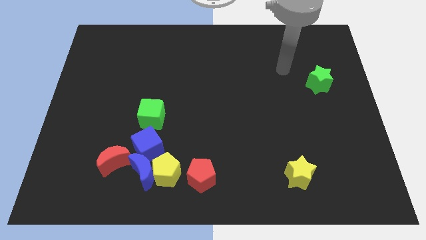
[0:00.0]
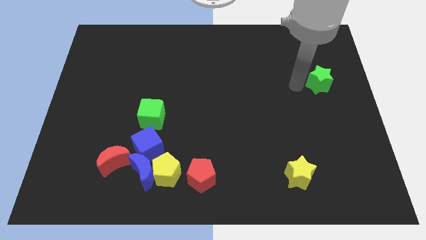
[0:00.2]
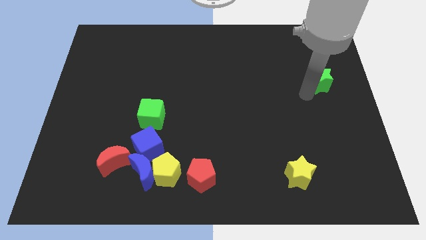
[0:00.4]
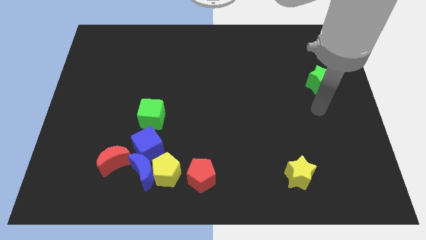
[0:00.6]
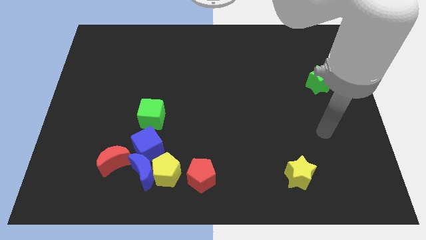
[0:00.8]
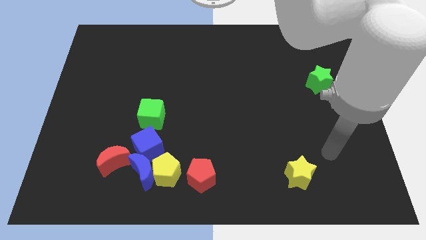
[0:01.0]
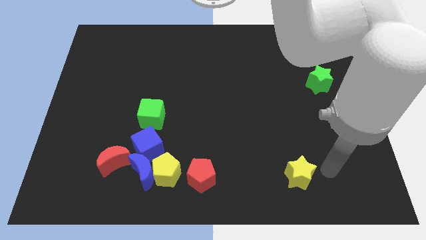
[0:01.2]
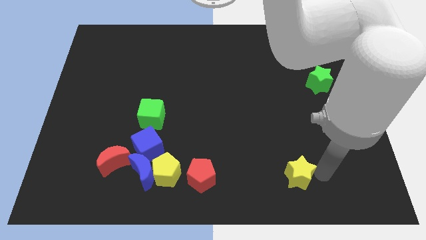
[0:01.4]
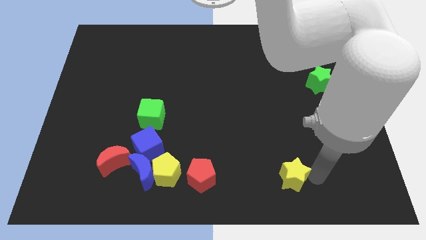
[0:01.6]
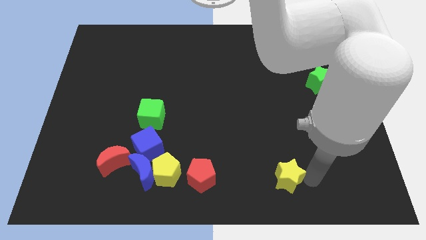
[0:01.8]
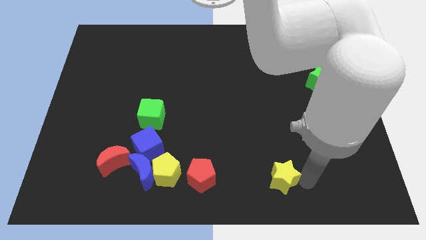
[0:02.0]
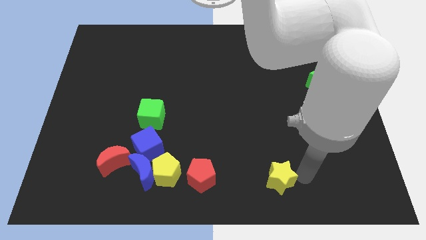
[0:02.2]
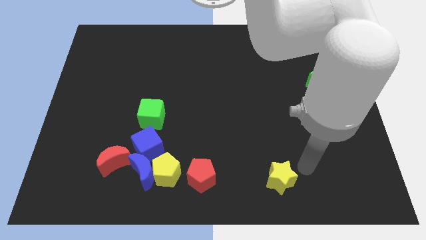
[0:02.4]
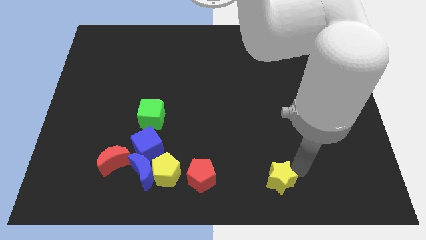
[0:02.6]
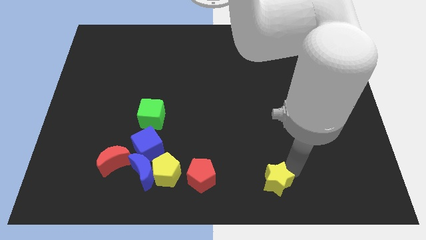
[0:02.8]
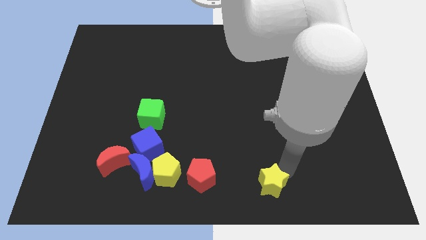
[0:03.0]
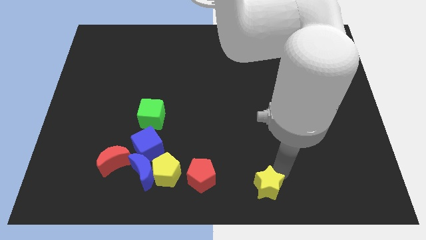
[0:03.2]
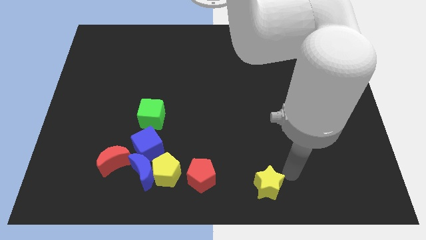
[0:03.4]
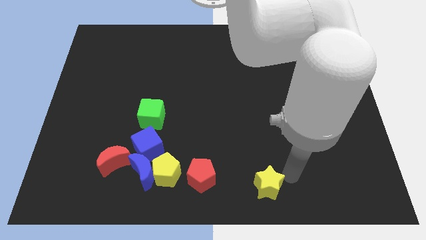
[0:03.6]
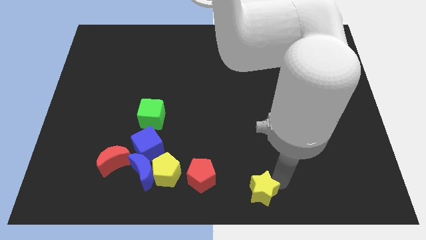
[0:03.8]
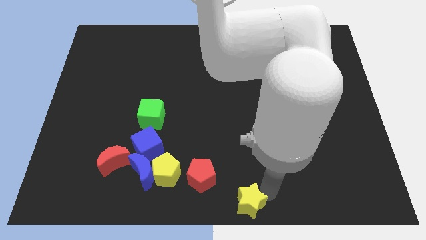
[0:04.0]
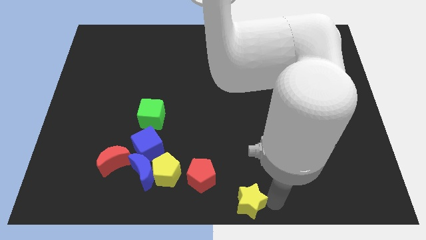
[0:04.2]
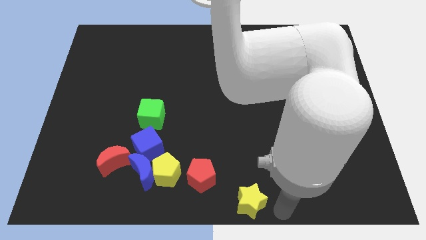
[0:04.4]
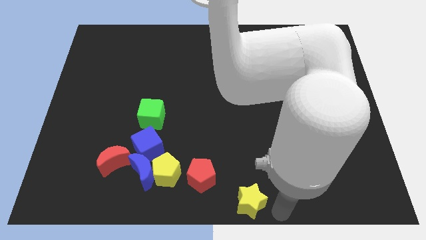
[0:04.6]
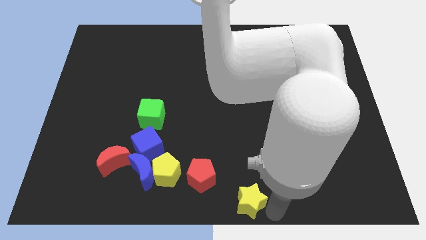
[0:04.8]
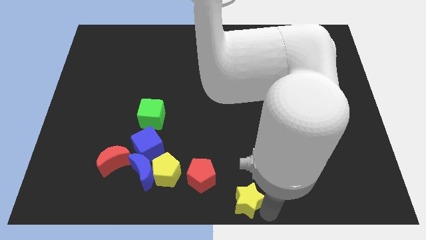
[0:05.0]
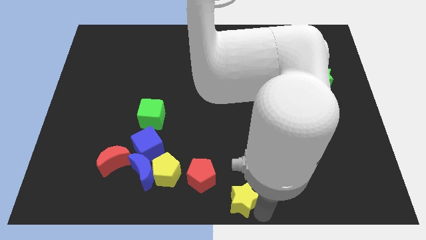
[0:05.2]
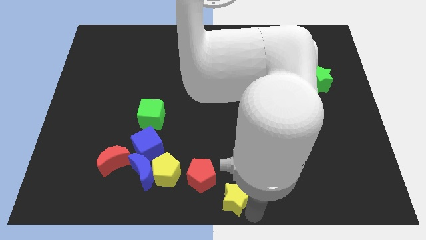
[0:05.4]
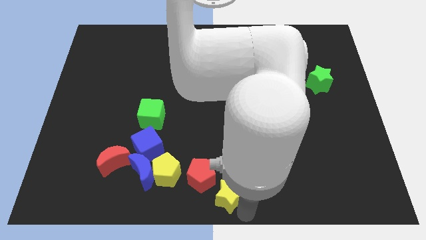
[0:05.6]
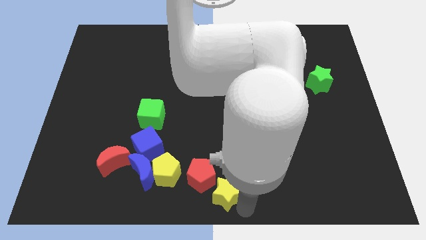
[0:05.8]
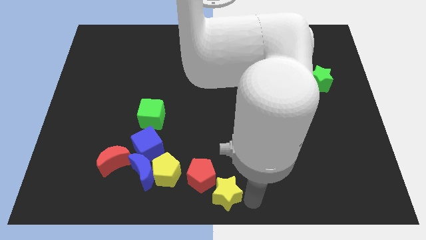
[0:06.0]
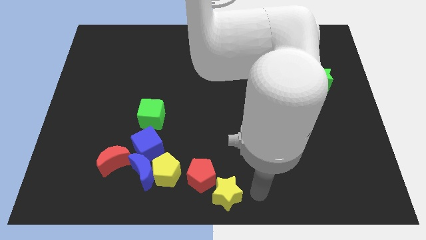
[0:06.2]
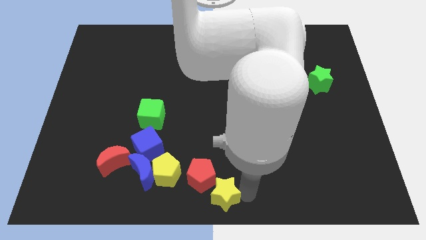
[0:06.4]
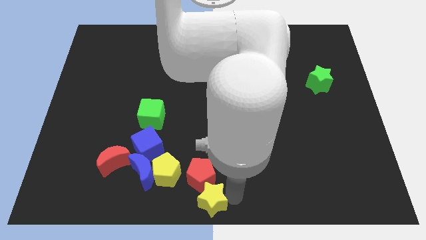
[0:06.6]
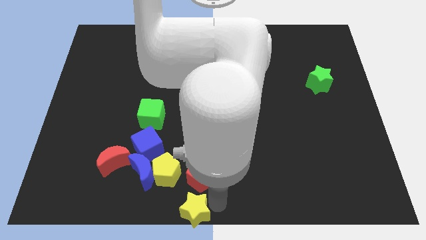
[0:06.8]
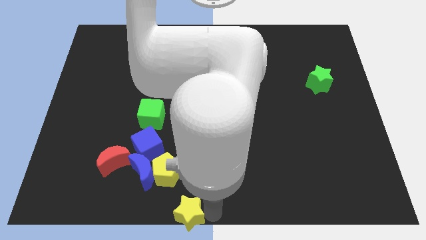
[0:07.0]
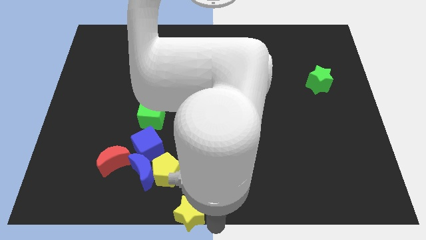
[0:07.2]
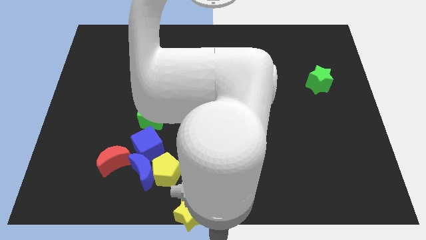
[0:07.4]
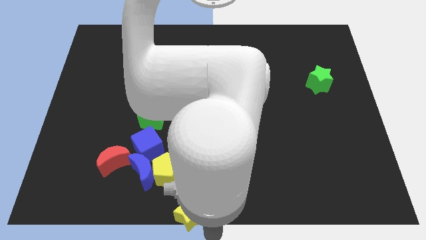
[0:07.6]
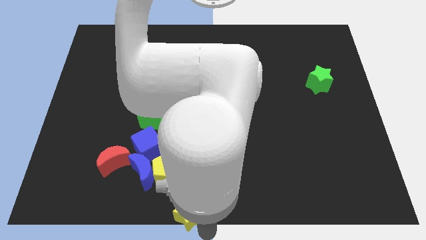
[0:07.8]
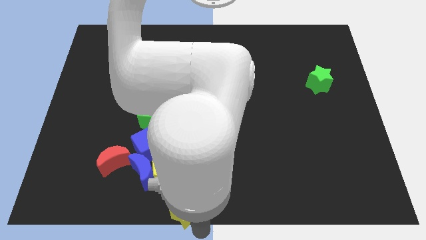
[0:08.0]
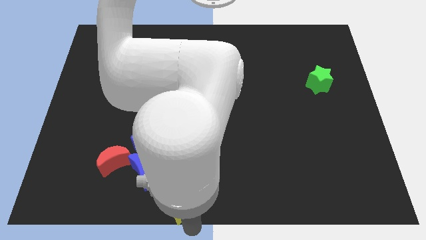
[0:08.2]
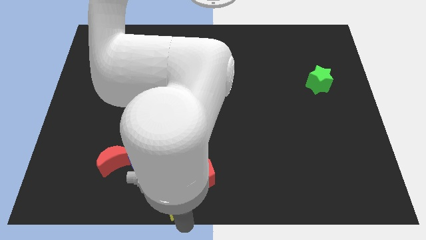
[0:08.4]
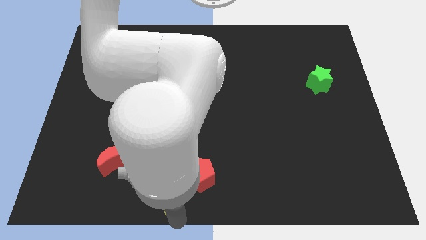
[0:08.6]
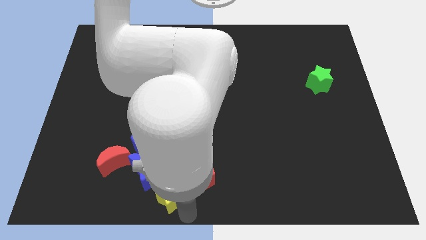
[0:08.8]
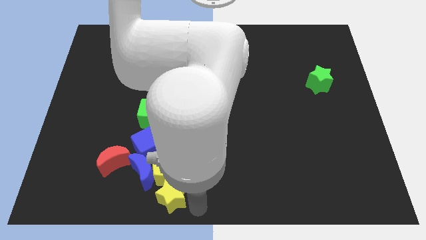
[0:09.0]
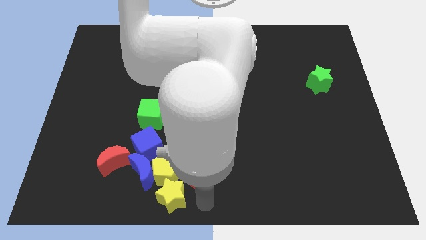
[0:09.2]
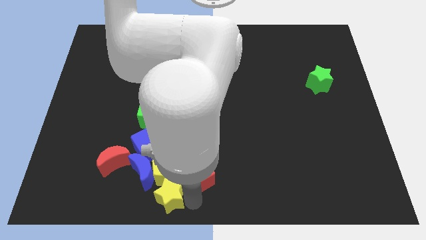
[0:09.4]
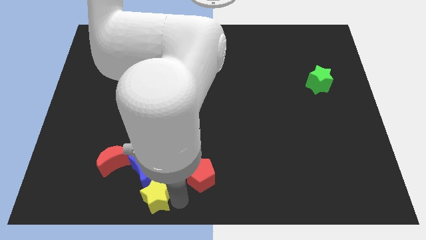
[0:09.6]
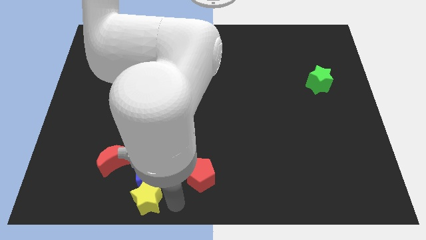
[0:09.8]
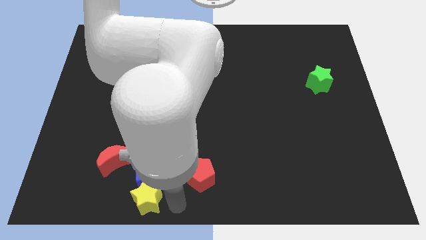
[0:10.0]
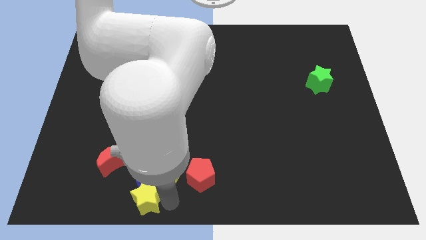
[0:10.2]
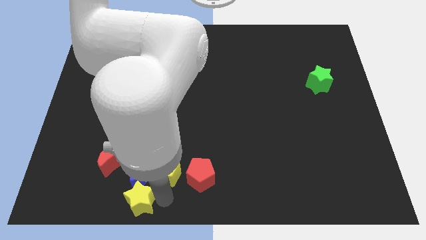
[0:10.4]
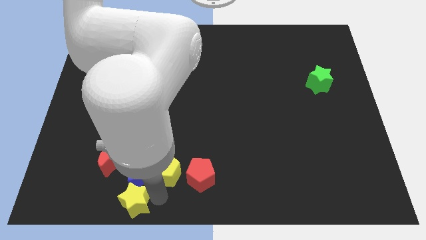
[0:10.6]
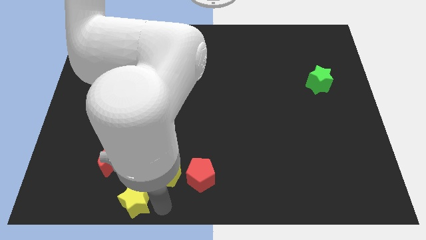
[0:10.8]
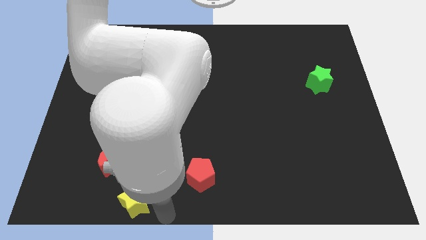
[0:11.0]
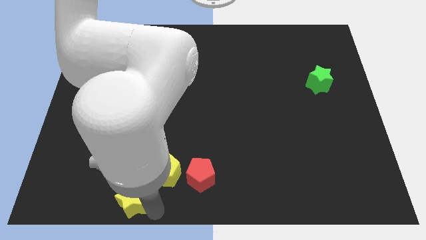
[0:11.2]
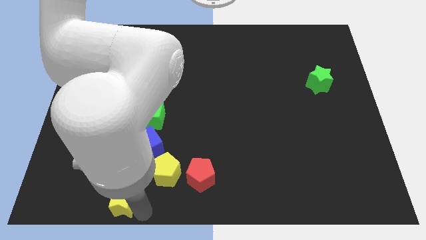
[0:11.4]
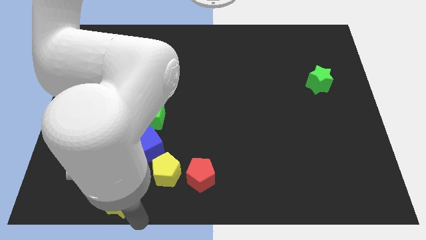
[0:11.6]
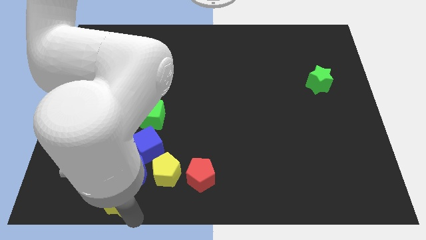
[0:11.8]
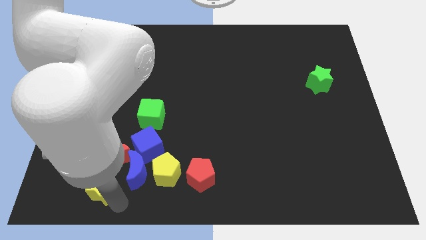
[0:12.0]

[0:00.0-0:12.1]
put the yellow star just left of the blue moon

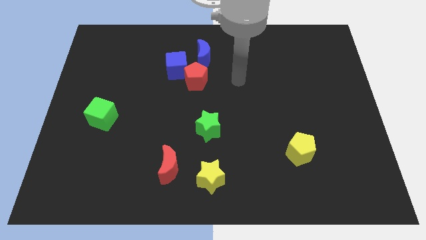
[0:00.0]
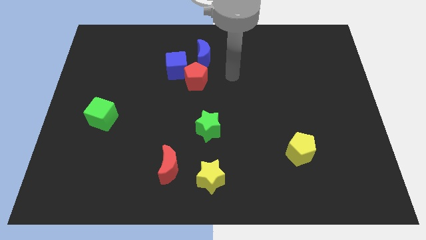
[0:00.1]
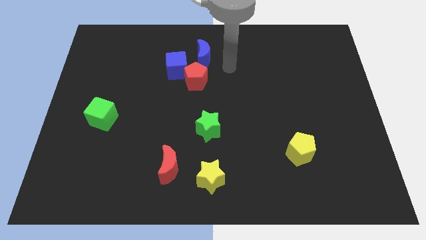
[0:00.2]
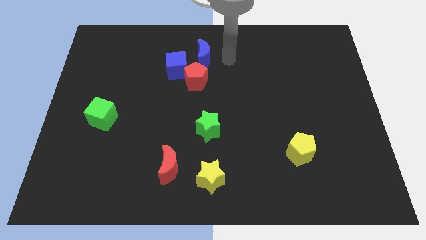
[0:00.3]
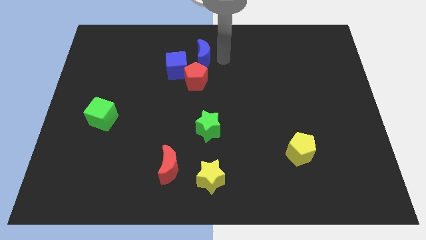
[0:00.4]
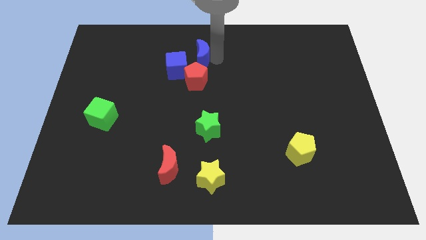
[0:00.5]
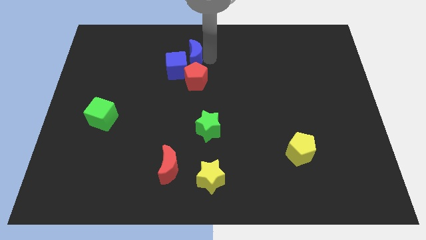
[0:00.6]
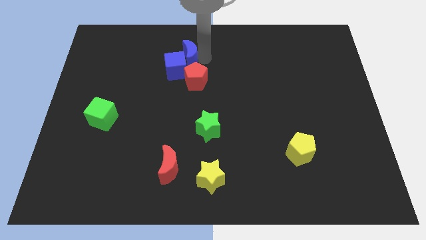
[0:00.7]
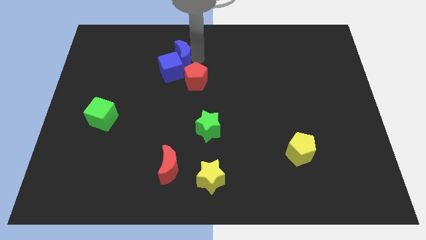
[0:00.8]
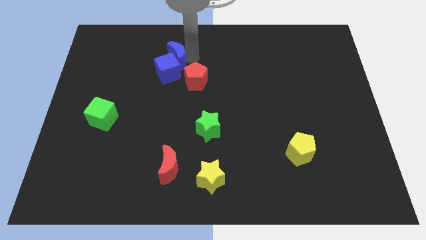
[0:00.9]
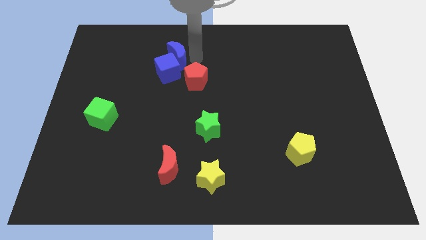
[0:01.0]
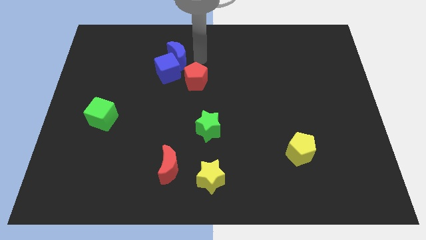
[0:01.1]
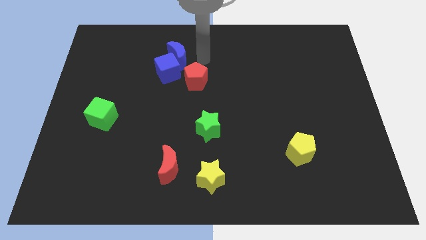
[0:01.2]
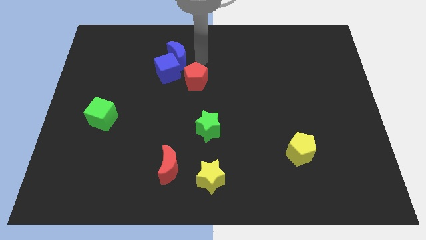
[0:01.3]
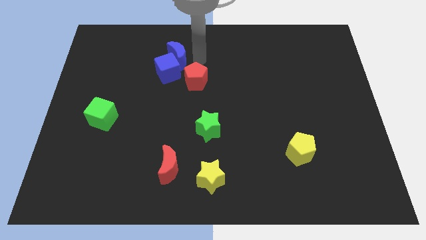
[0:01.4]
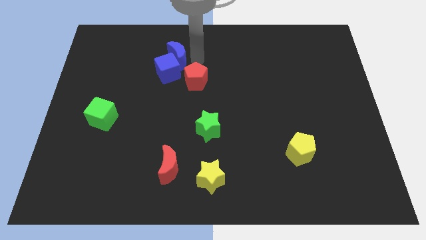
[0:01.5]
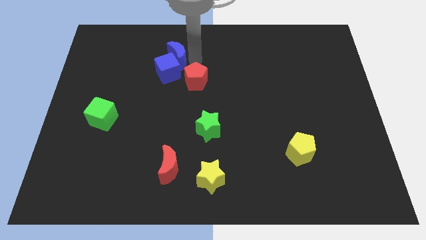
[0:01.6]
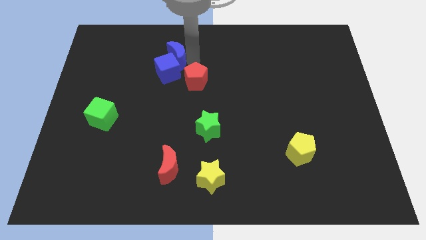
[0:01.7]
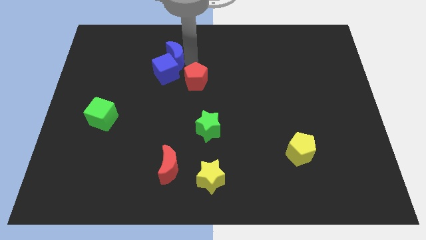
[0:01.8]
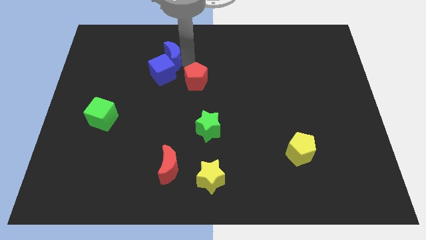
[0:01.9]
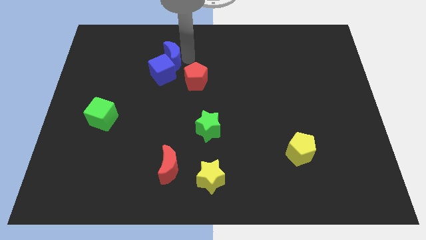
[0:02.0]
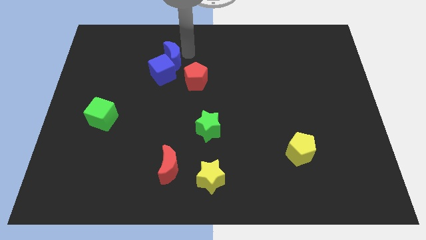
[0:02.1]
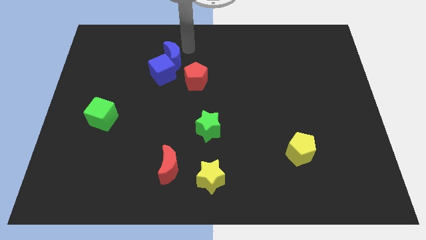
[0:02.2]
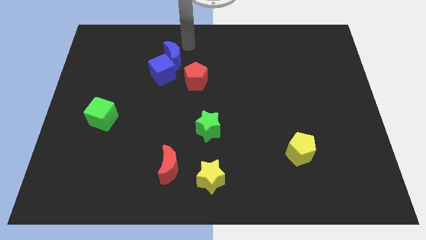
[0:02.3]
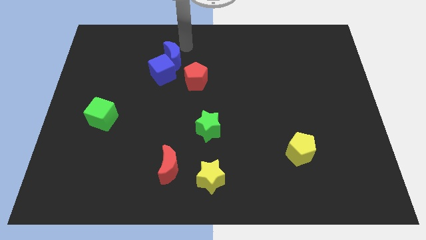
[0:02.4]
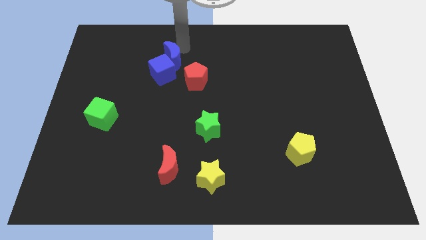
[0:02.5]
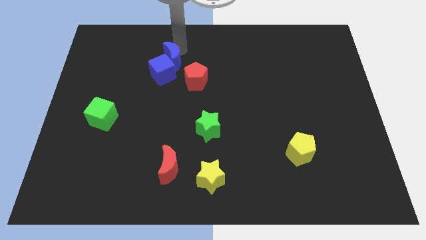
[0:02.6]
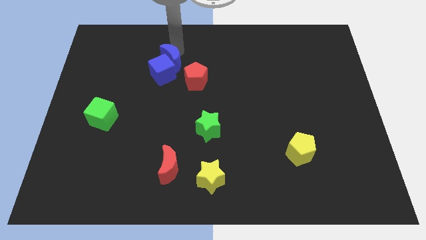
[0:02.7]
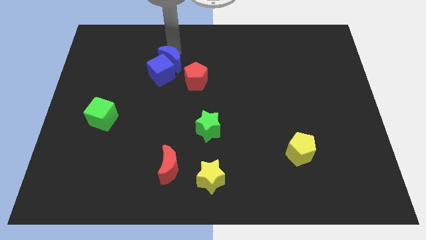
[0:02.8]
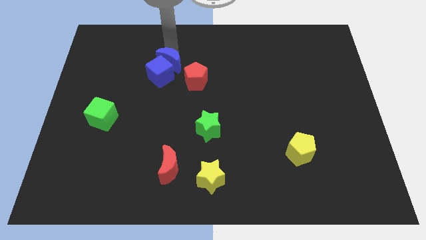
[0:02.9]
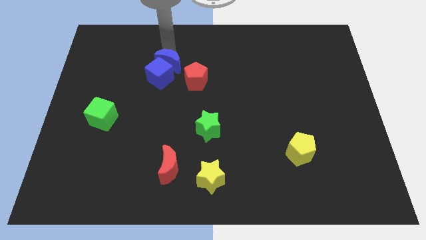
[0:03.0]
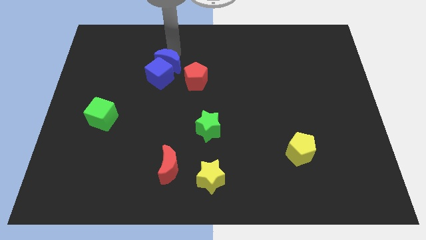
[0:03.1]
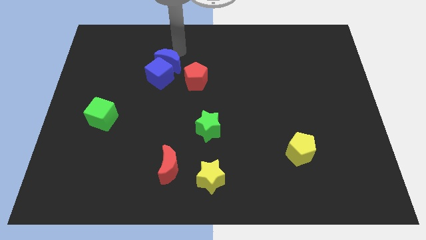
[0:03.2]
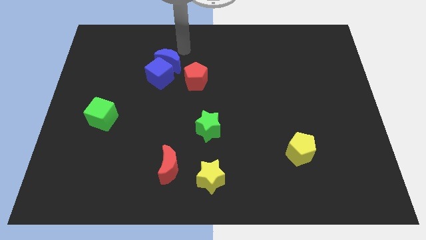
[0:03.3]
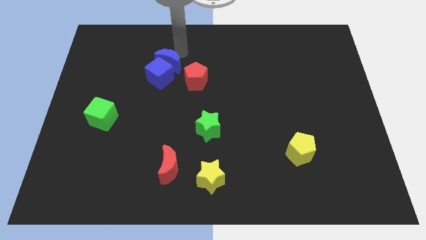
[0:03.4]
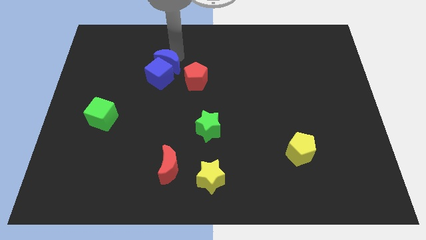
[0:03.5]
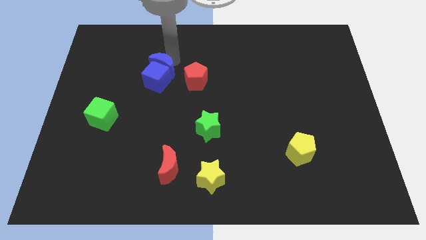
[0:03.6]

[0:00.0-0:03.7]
put the blue moon to the left side of the red pentagon
